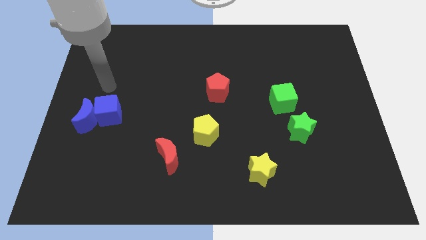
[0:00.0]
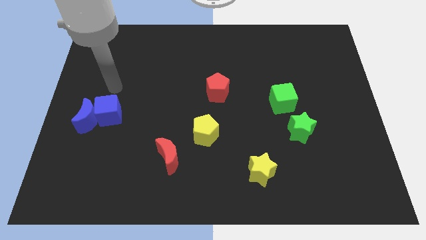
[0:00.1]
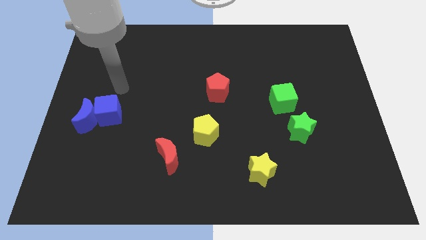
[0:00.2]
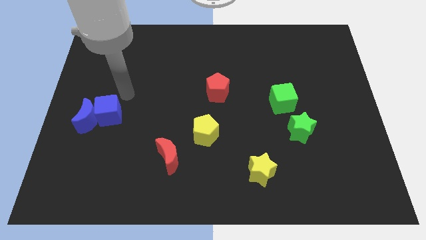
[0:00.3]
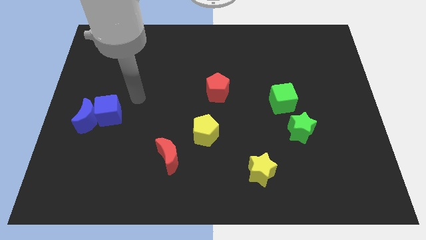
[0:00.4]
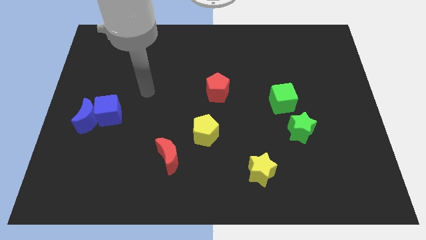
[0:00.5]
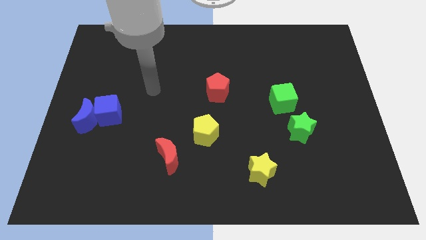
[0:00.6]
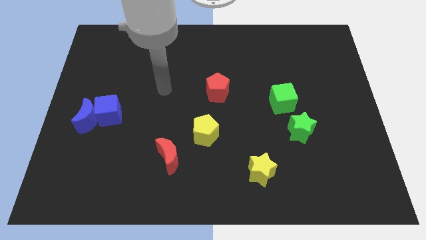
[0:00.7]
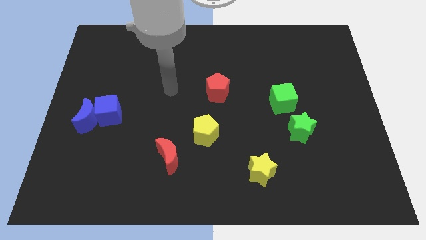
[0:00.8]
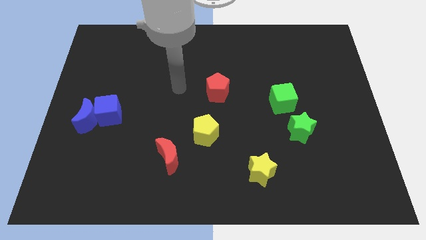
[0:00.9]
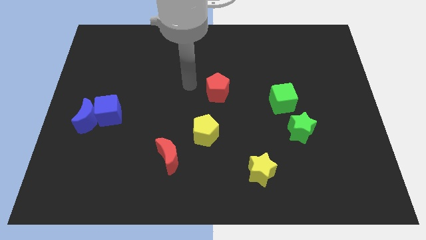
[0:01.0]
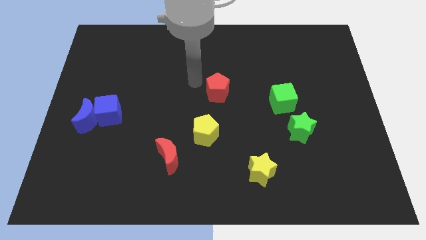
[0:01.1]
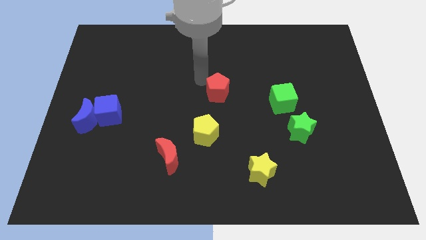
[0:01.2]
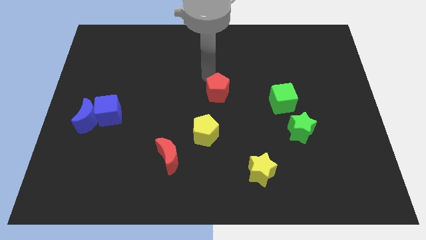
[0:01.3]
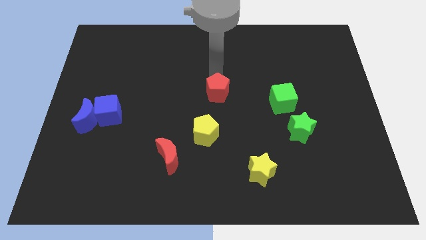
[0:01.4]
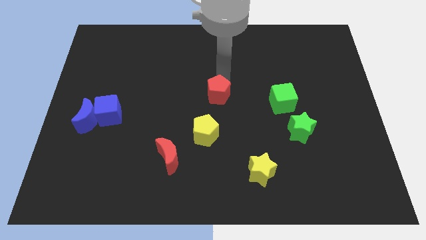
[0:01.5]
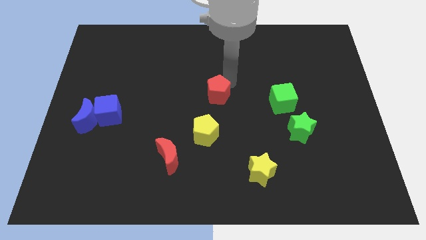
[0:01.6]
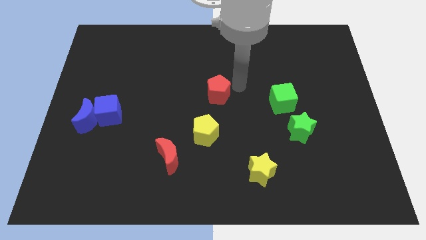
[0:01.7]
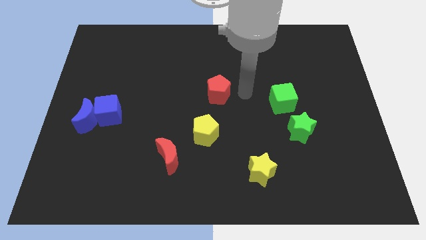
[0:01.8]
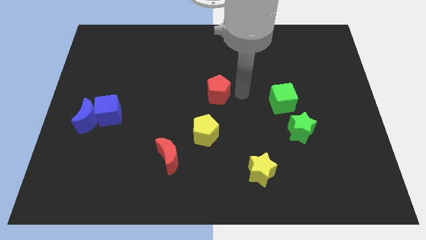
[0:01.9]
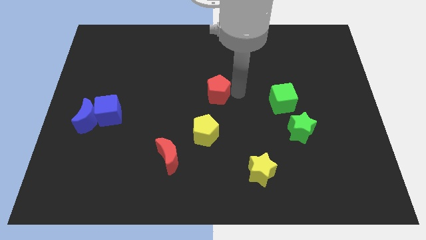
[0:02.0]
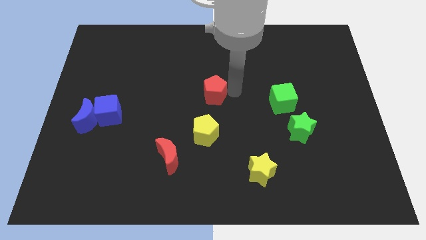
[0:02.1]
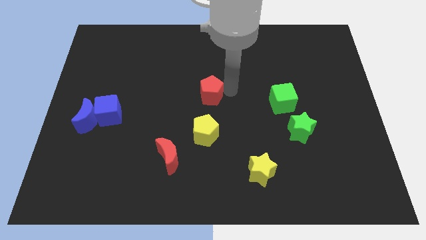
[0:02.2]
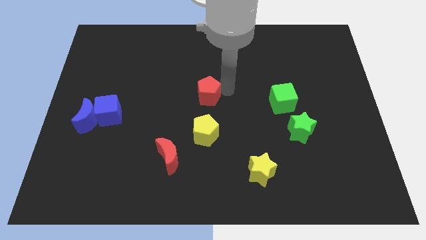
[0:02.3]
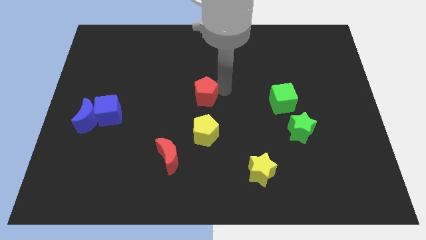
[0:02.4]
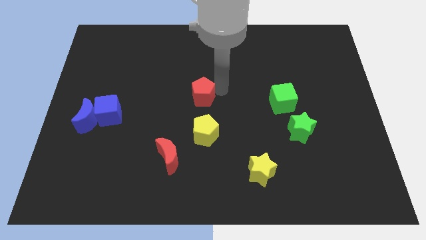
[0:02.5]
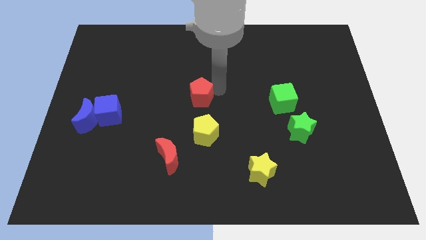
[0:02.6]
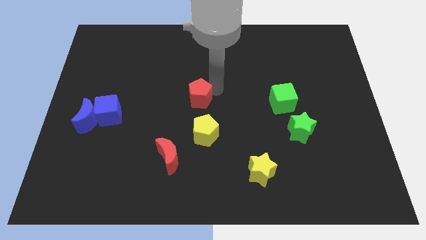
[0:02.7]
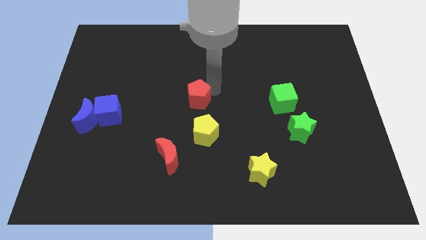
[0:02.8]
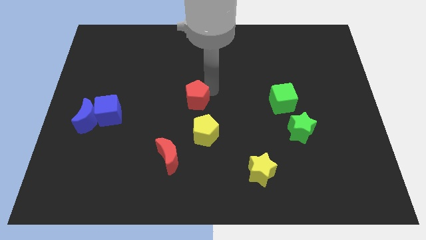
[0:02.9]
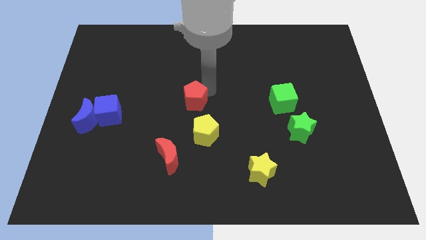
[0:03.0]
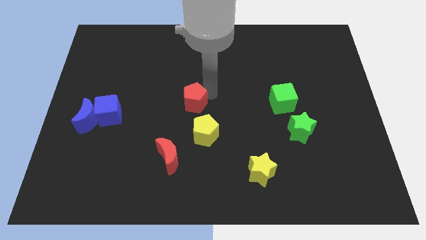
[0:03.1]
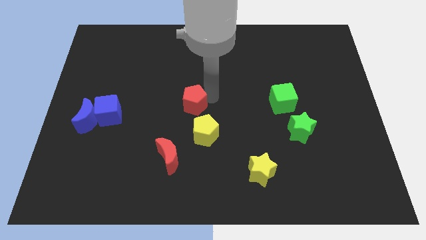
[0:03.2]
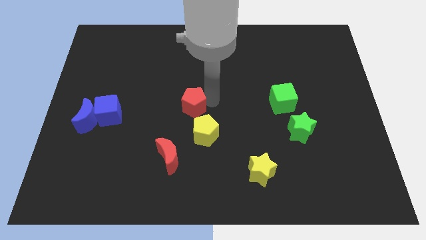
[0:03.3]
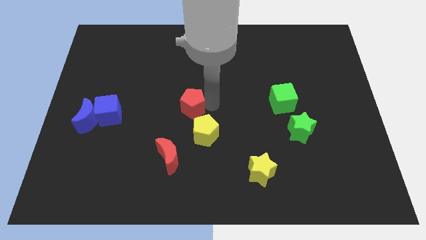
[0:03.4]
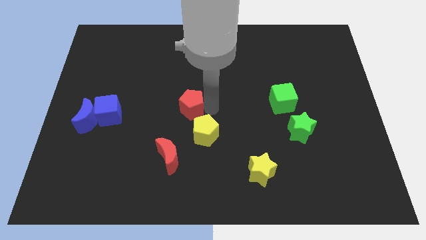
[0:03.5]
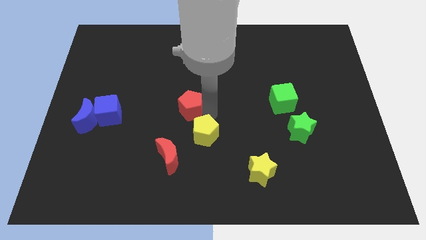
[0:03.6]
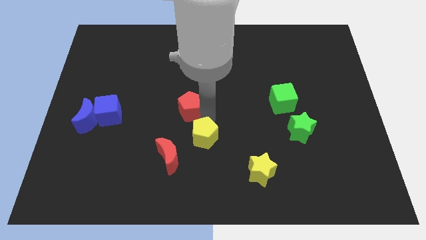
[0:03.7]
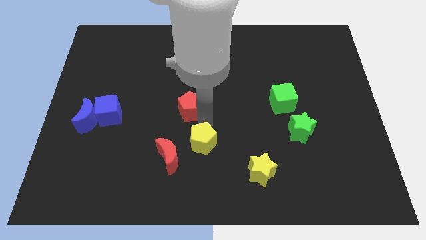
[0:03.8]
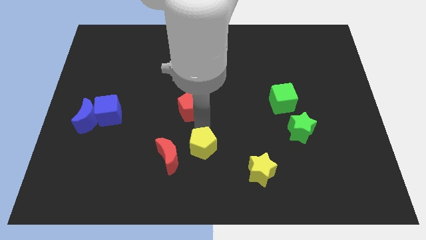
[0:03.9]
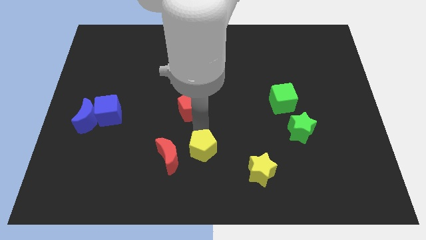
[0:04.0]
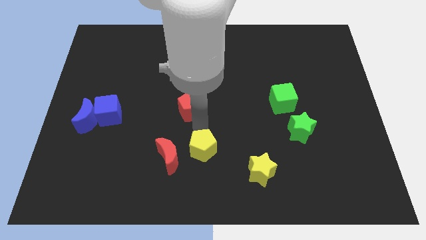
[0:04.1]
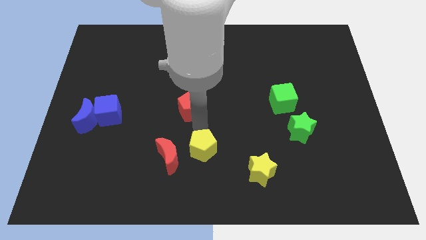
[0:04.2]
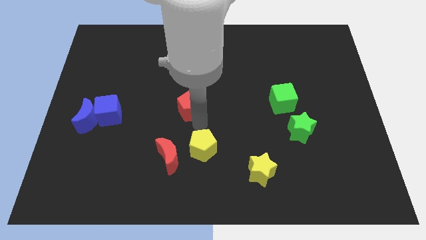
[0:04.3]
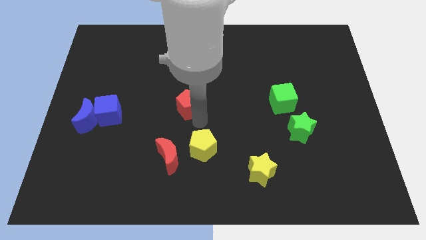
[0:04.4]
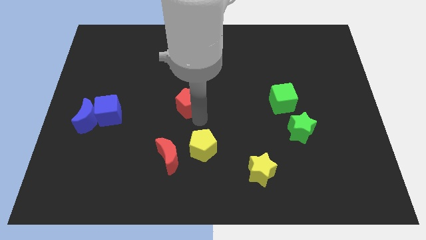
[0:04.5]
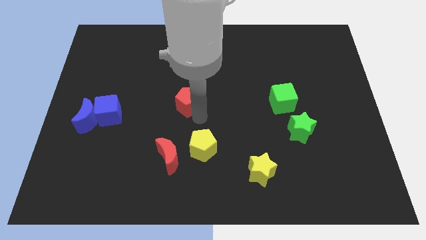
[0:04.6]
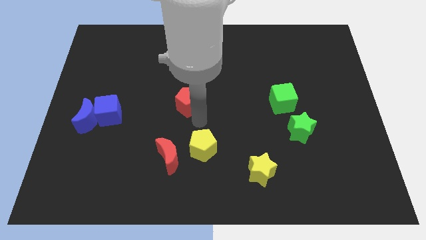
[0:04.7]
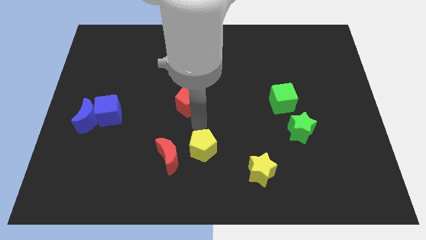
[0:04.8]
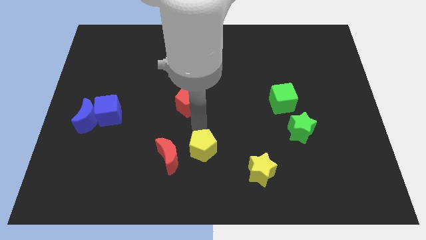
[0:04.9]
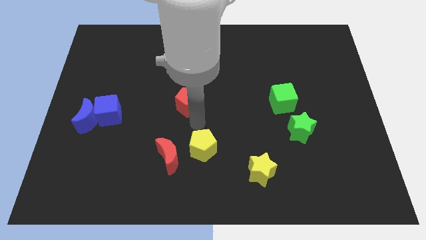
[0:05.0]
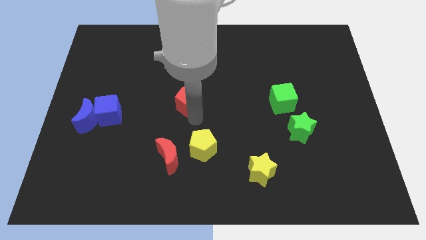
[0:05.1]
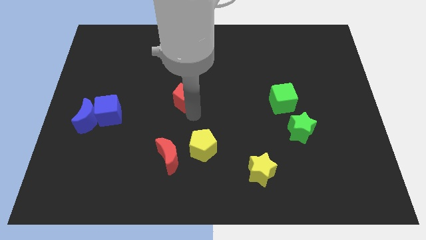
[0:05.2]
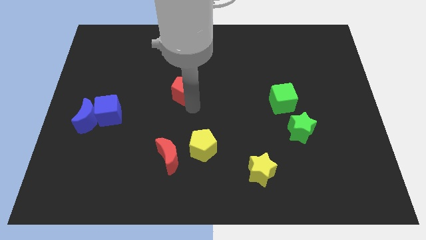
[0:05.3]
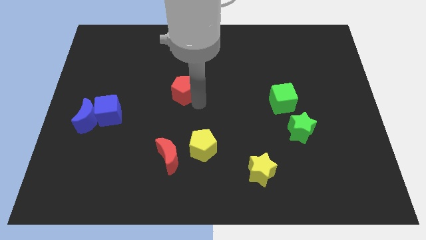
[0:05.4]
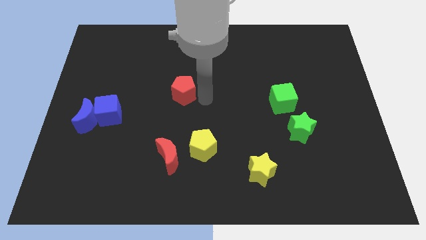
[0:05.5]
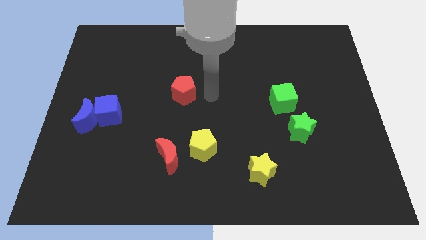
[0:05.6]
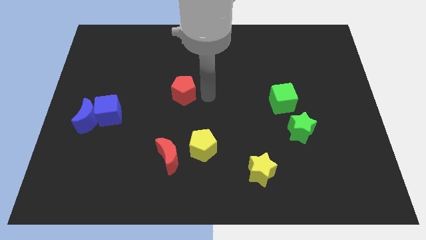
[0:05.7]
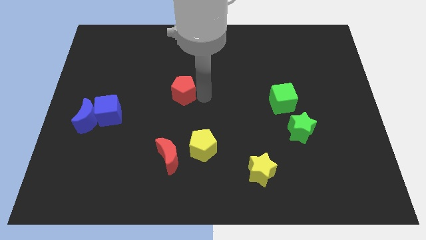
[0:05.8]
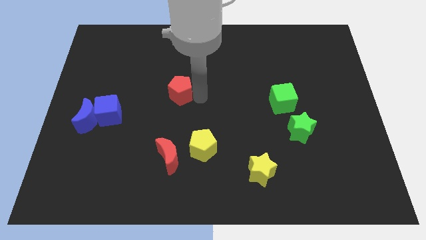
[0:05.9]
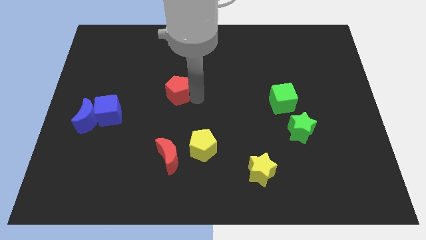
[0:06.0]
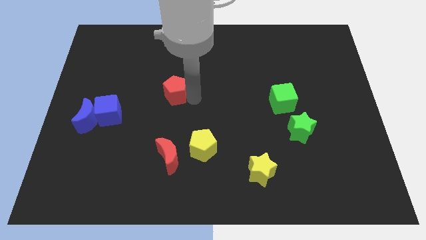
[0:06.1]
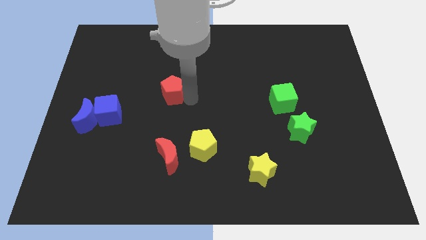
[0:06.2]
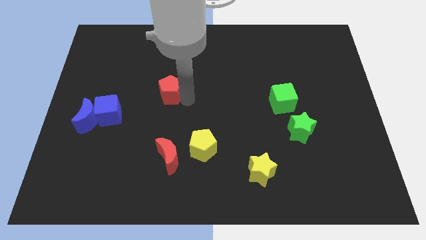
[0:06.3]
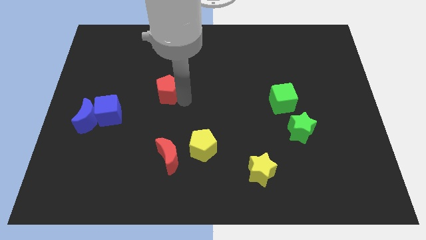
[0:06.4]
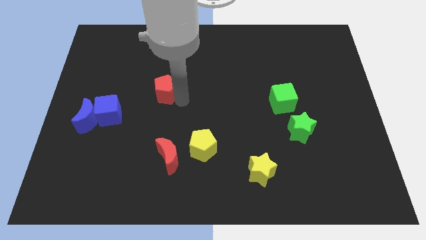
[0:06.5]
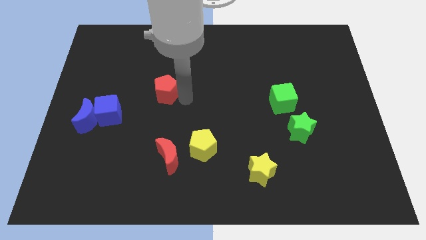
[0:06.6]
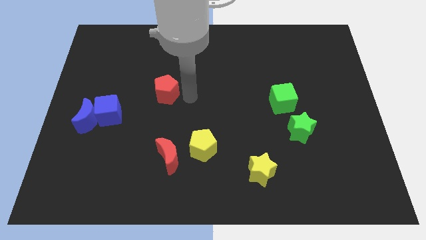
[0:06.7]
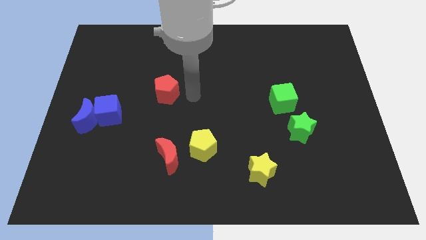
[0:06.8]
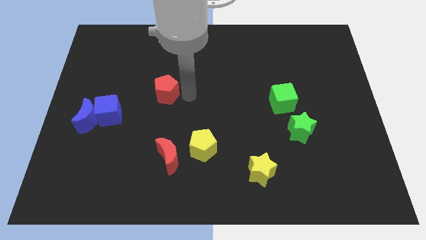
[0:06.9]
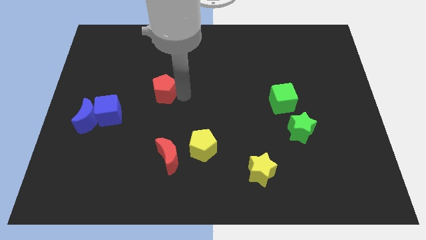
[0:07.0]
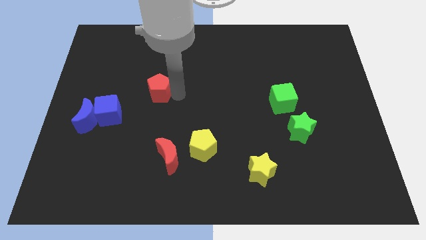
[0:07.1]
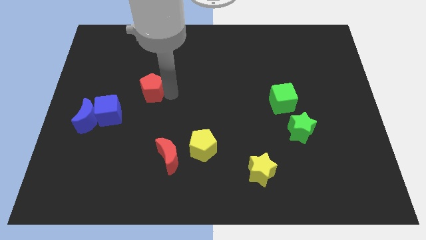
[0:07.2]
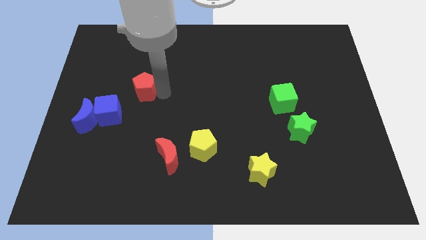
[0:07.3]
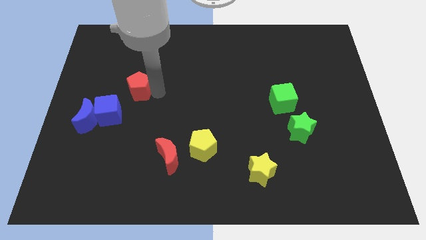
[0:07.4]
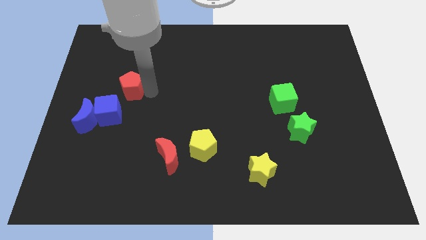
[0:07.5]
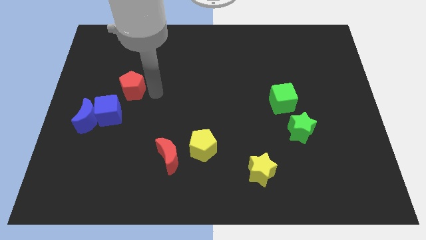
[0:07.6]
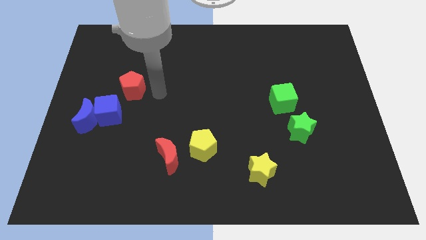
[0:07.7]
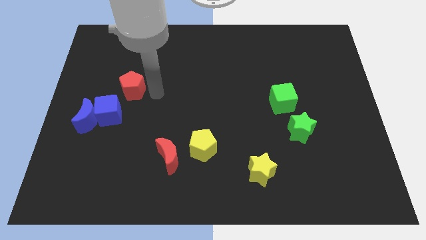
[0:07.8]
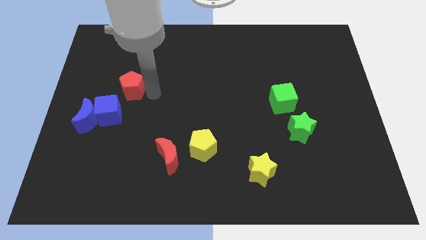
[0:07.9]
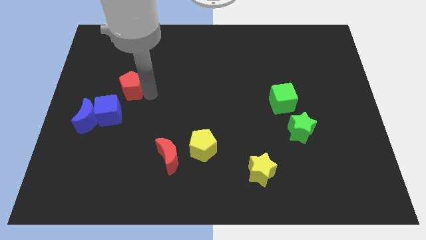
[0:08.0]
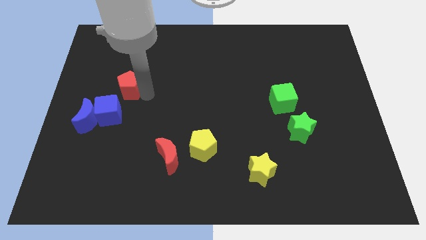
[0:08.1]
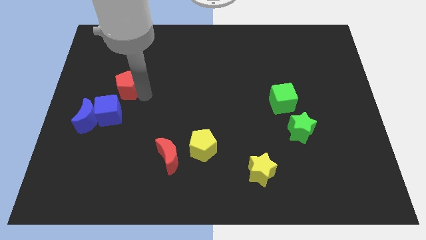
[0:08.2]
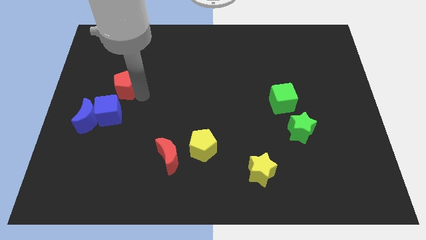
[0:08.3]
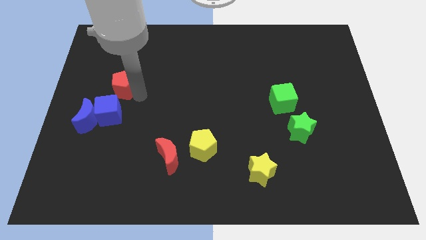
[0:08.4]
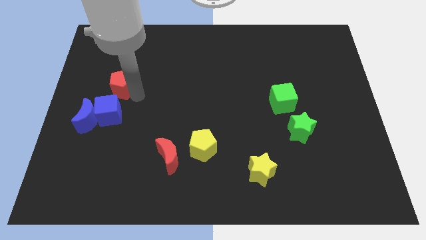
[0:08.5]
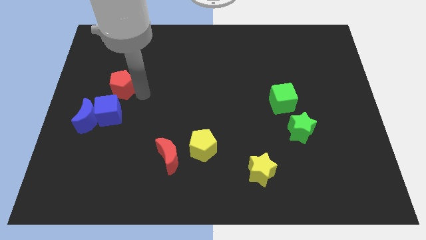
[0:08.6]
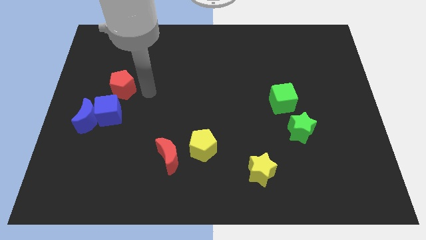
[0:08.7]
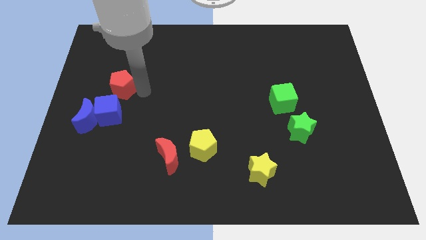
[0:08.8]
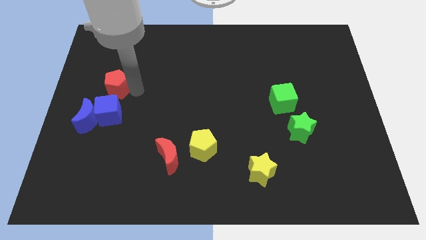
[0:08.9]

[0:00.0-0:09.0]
put the red pentagon above the blue moon
